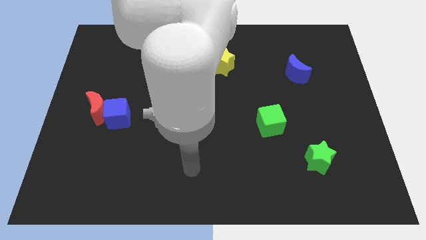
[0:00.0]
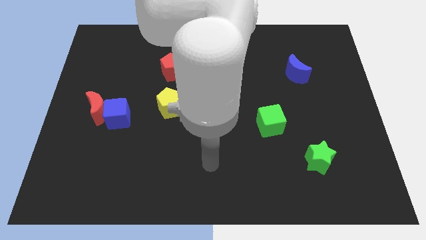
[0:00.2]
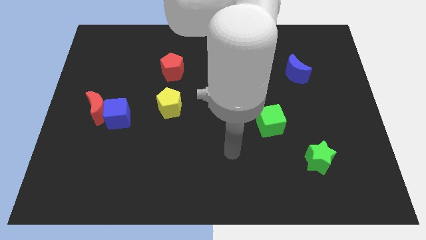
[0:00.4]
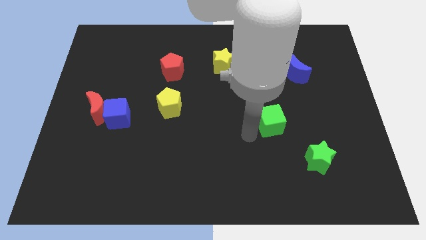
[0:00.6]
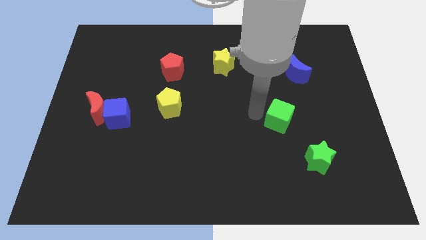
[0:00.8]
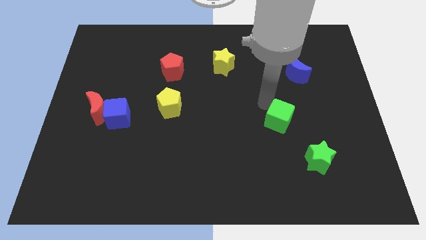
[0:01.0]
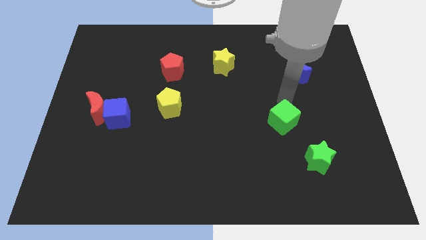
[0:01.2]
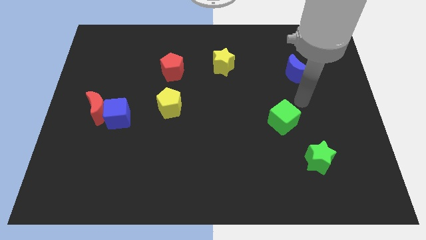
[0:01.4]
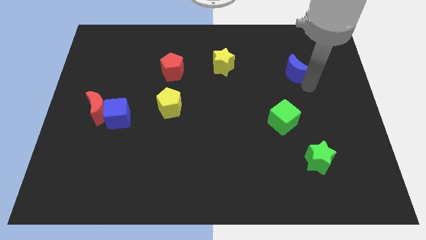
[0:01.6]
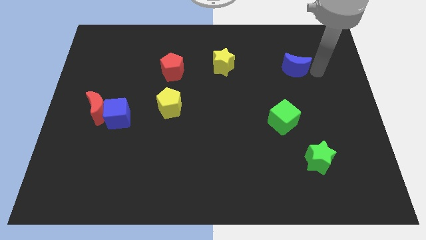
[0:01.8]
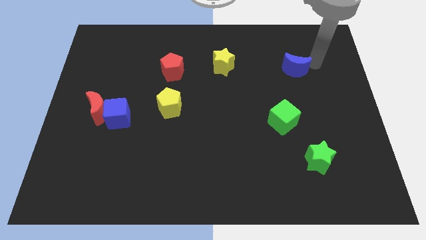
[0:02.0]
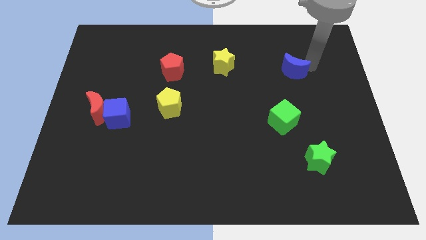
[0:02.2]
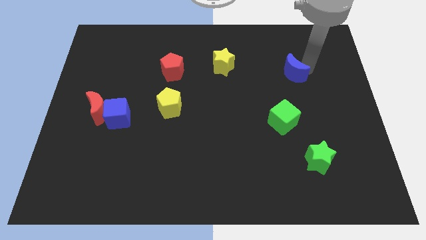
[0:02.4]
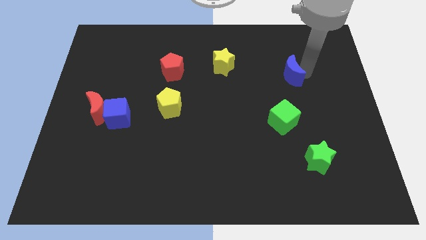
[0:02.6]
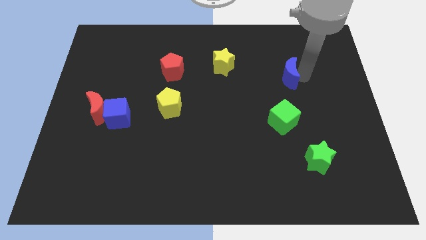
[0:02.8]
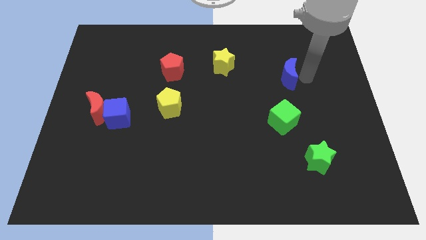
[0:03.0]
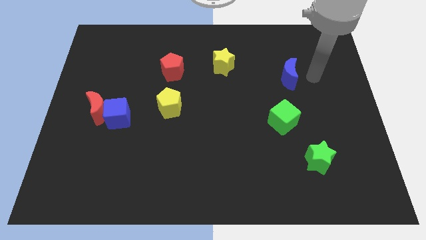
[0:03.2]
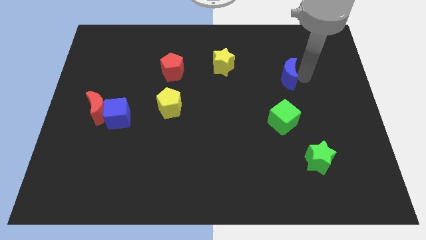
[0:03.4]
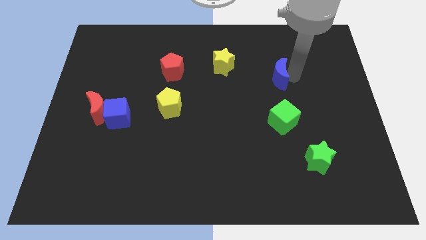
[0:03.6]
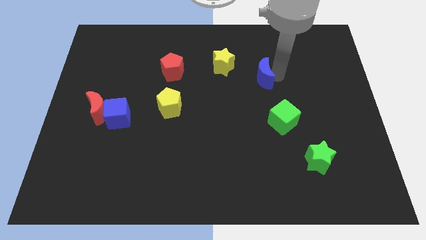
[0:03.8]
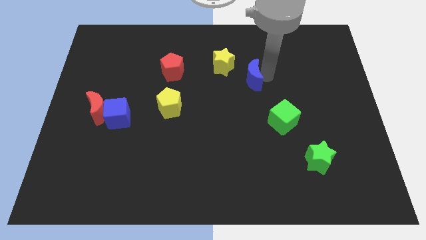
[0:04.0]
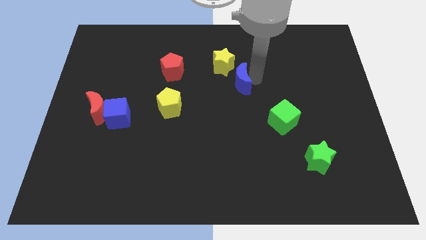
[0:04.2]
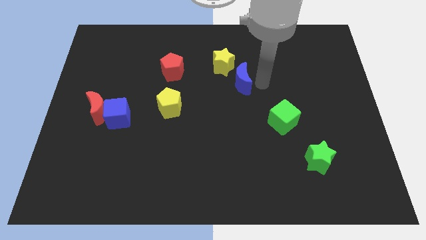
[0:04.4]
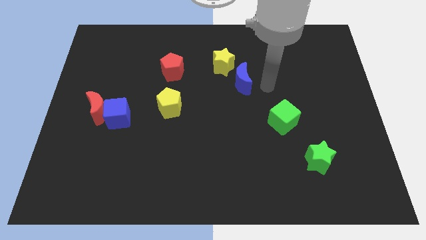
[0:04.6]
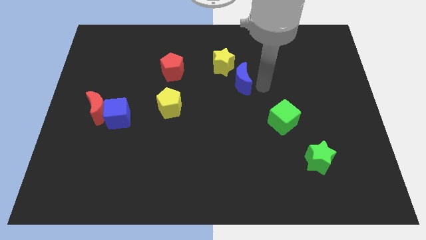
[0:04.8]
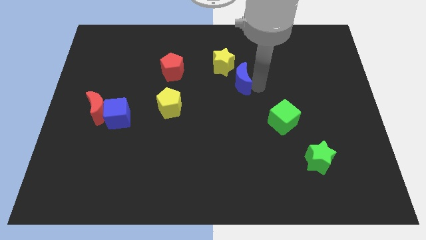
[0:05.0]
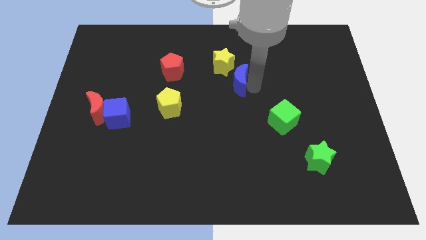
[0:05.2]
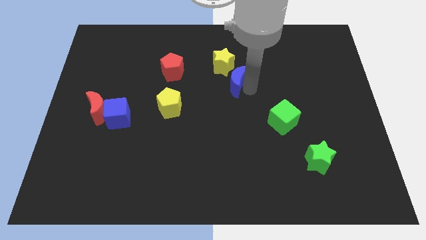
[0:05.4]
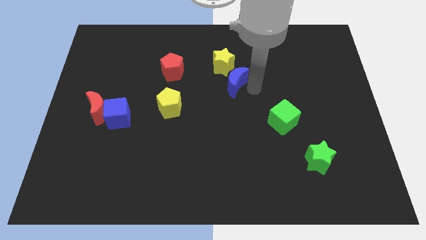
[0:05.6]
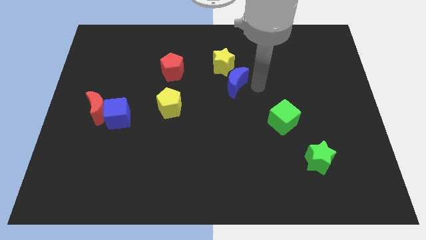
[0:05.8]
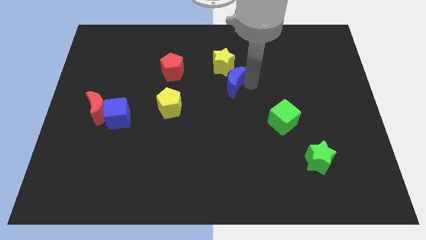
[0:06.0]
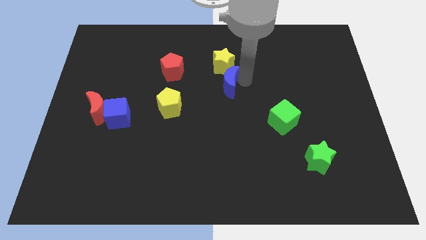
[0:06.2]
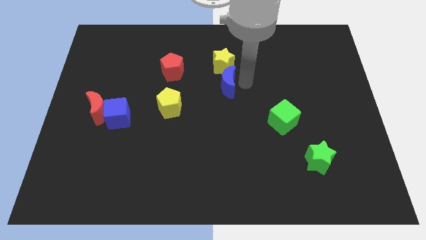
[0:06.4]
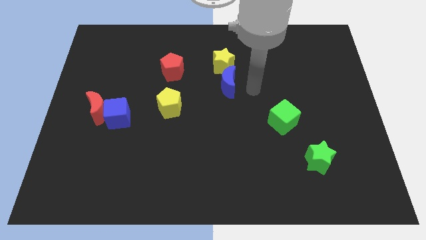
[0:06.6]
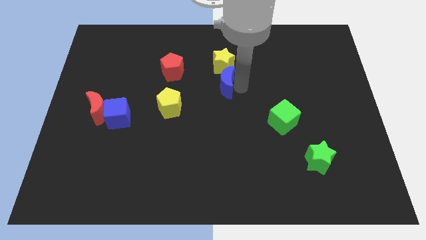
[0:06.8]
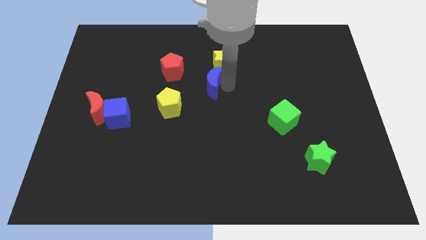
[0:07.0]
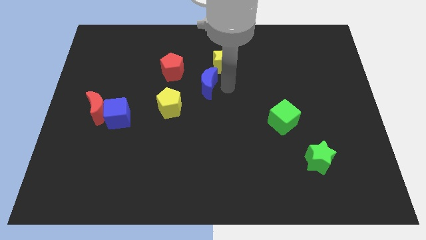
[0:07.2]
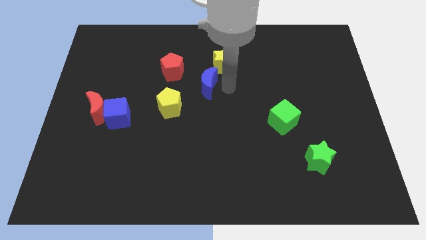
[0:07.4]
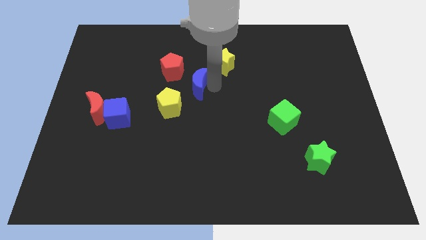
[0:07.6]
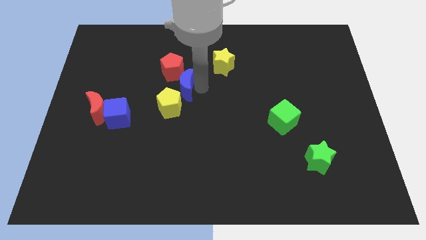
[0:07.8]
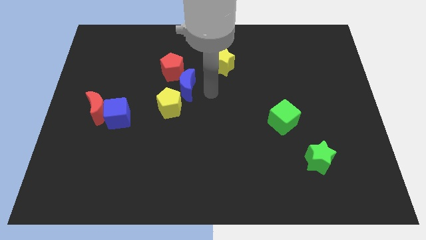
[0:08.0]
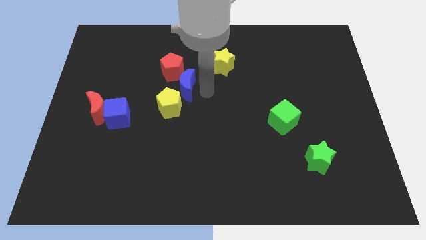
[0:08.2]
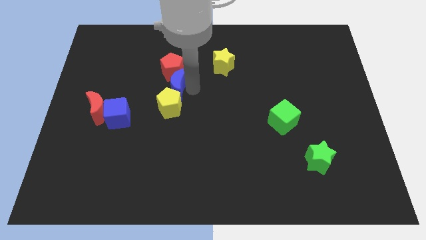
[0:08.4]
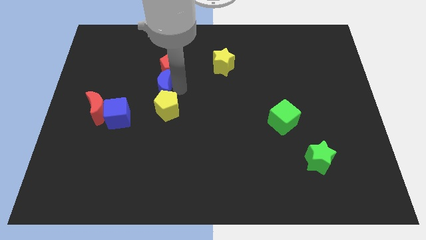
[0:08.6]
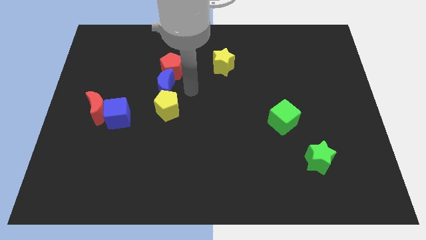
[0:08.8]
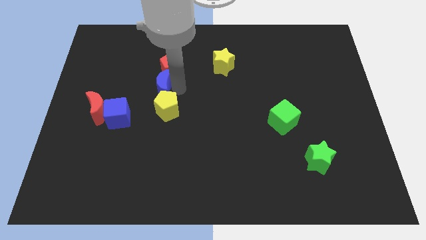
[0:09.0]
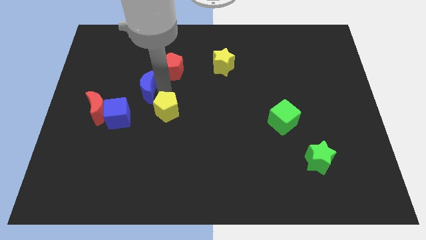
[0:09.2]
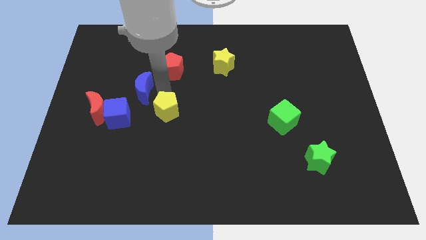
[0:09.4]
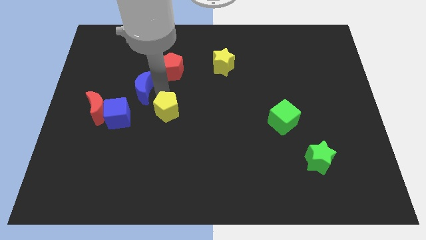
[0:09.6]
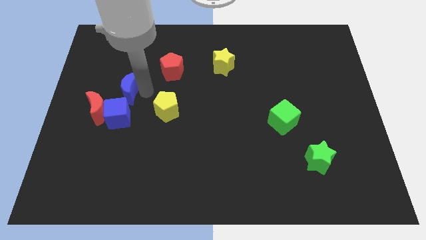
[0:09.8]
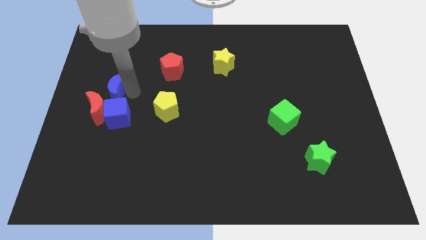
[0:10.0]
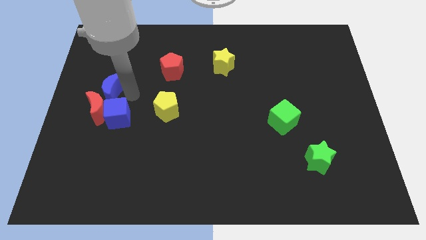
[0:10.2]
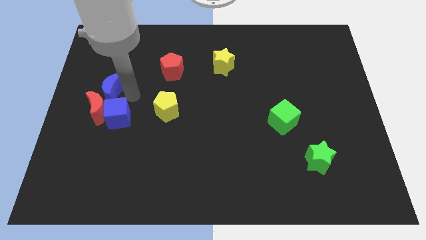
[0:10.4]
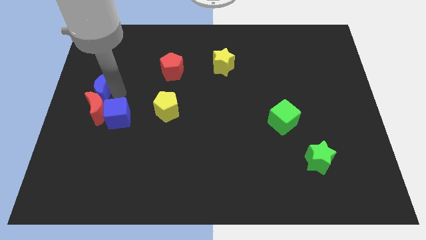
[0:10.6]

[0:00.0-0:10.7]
put the blue moon to the center left

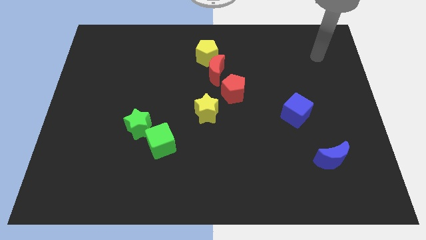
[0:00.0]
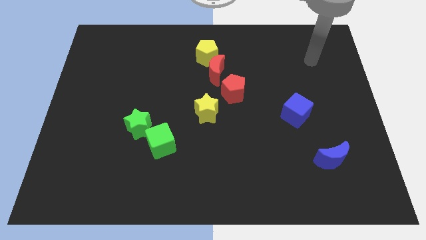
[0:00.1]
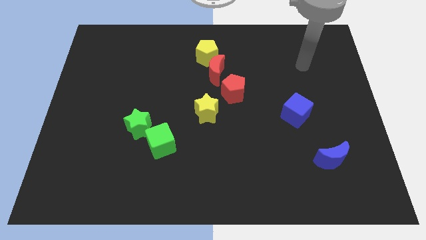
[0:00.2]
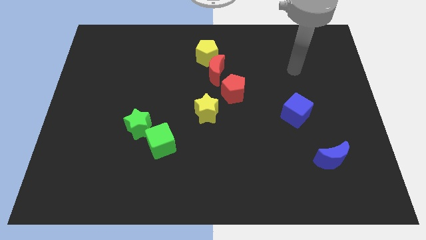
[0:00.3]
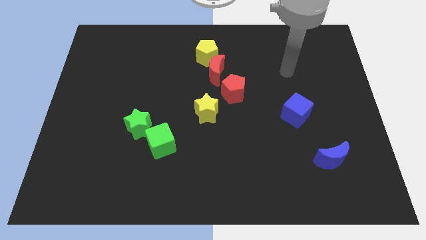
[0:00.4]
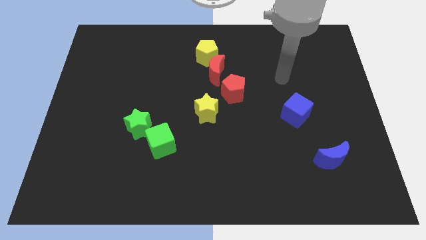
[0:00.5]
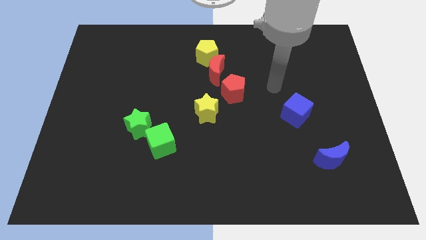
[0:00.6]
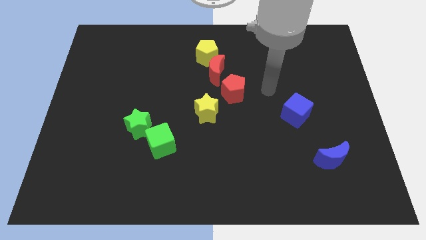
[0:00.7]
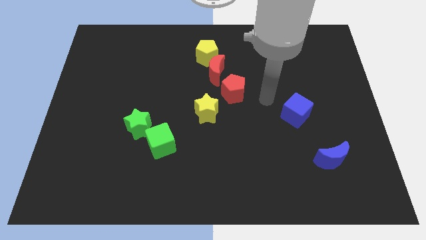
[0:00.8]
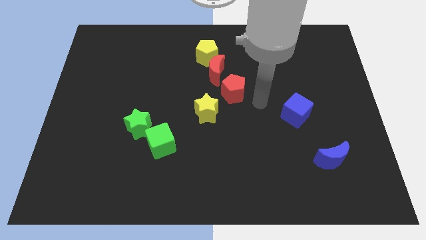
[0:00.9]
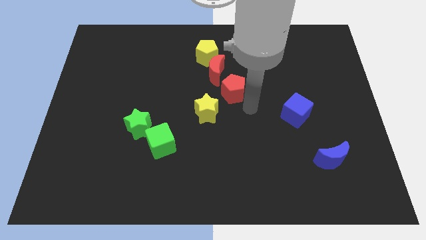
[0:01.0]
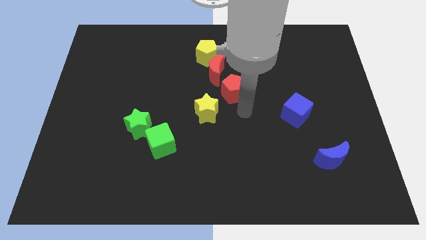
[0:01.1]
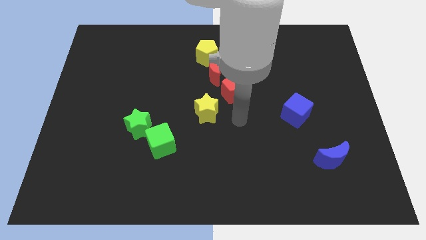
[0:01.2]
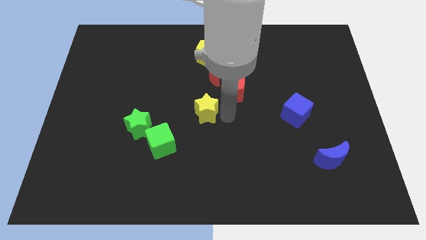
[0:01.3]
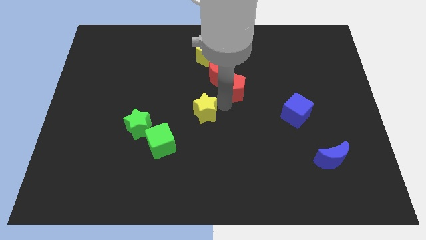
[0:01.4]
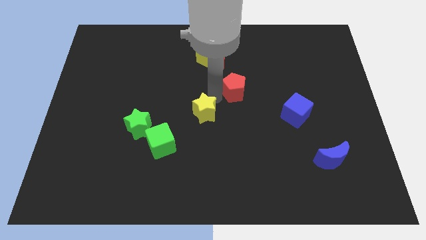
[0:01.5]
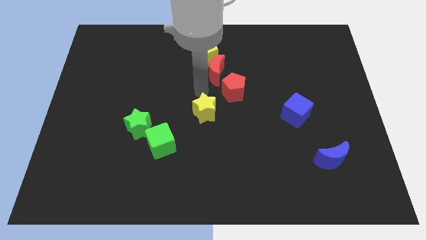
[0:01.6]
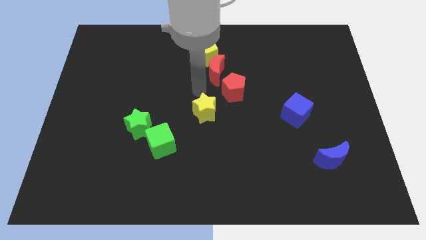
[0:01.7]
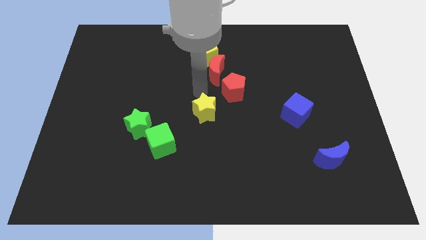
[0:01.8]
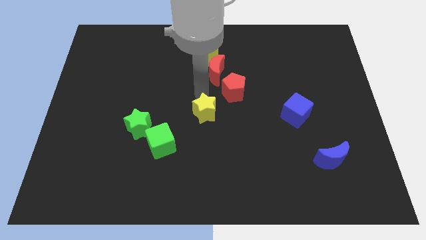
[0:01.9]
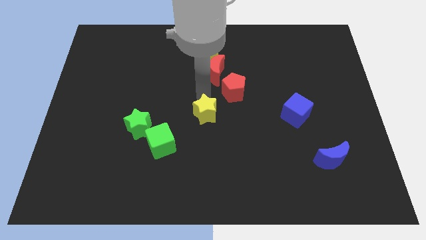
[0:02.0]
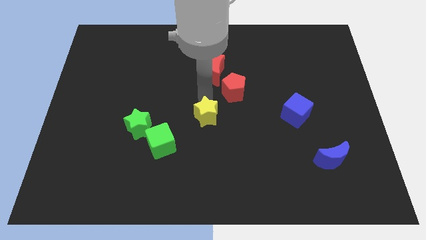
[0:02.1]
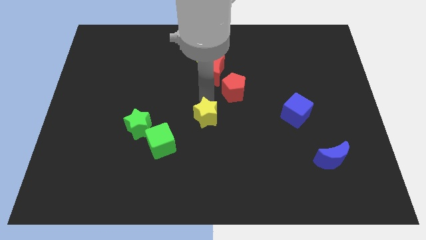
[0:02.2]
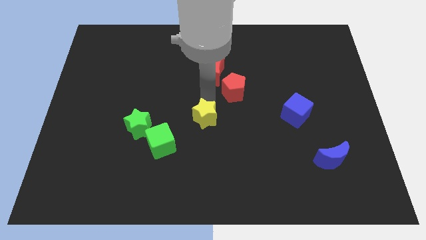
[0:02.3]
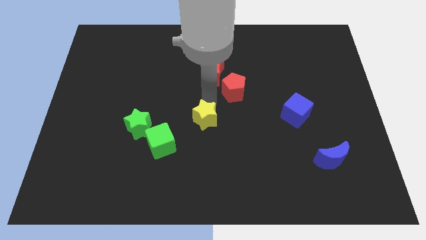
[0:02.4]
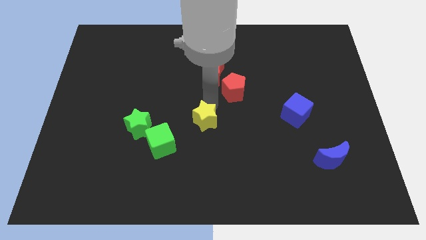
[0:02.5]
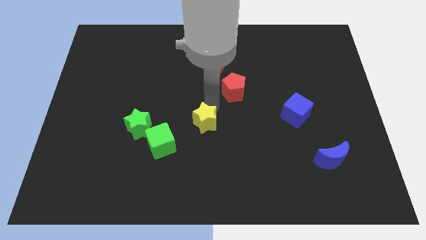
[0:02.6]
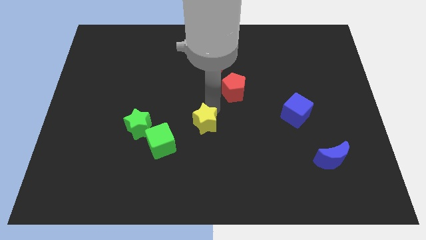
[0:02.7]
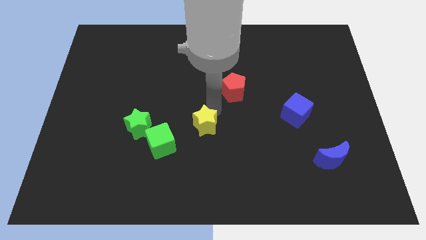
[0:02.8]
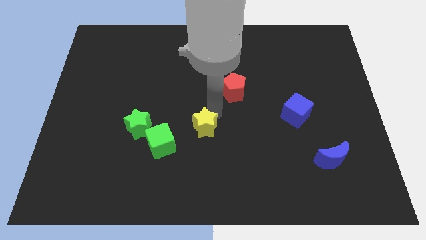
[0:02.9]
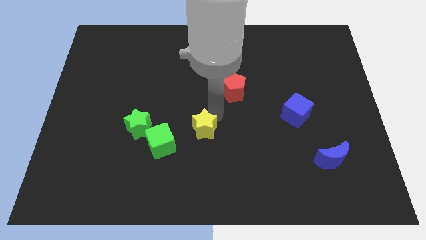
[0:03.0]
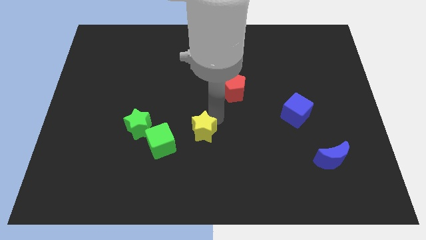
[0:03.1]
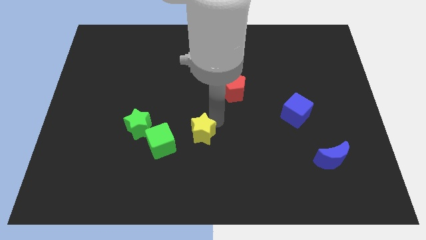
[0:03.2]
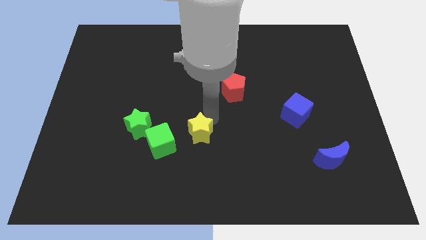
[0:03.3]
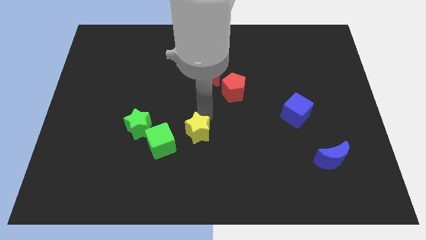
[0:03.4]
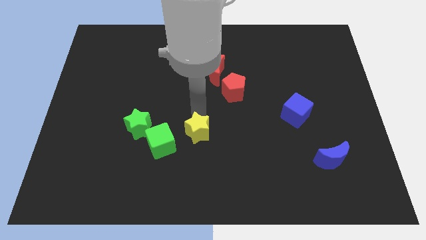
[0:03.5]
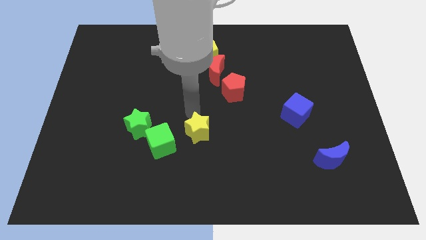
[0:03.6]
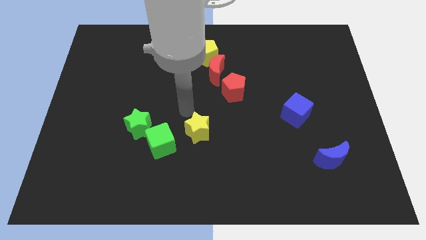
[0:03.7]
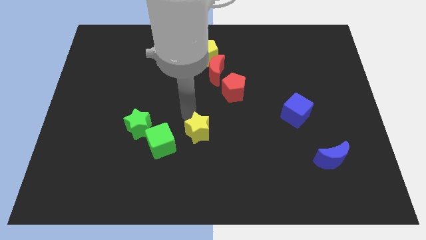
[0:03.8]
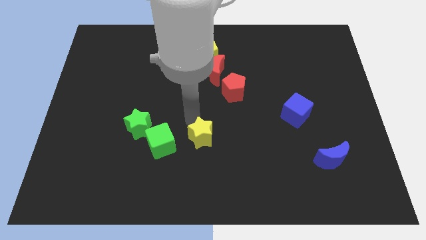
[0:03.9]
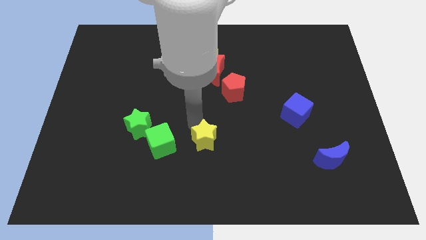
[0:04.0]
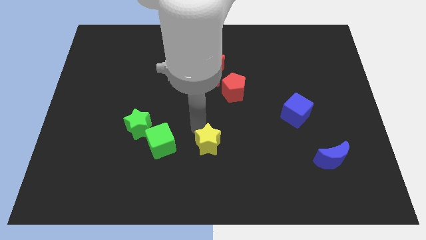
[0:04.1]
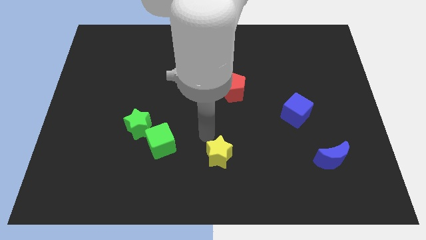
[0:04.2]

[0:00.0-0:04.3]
move the yellow star to the bottom
